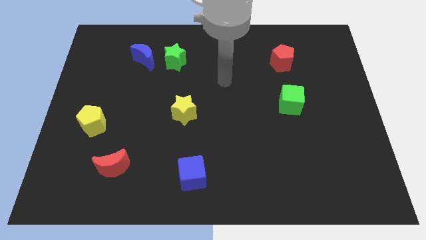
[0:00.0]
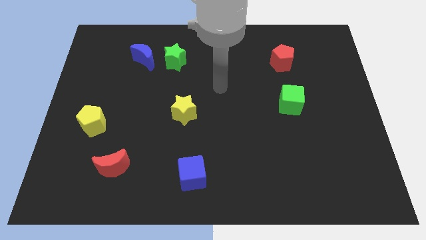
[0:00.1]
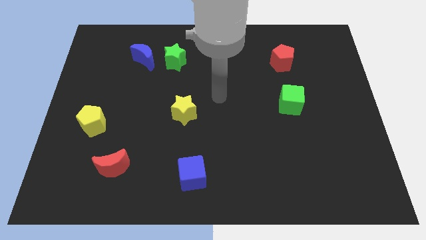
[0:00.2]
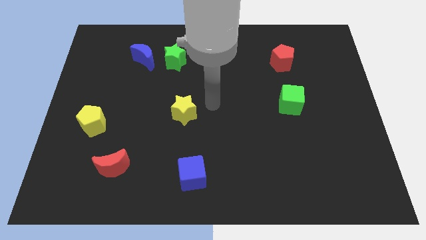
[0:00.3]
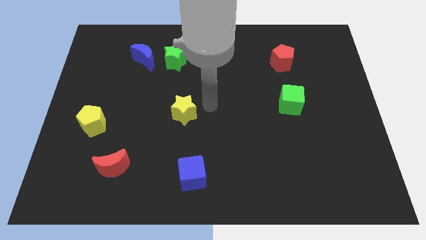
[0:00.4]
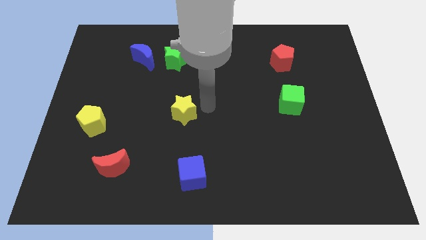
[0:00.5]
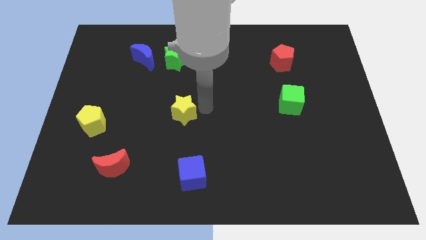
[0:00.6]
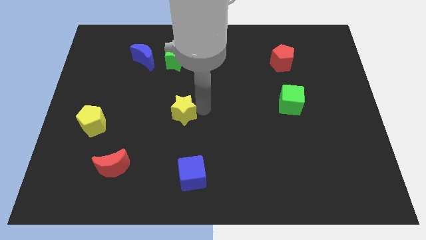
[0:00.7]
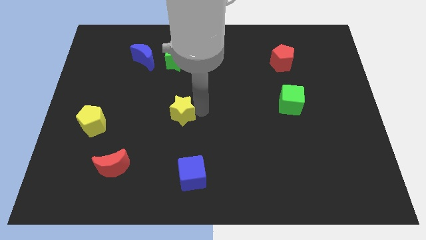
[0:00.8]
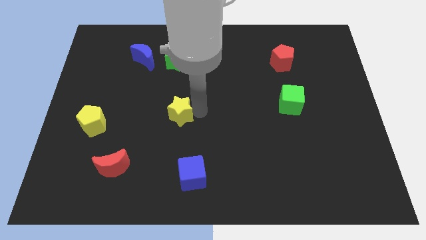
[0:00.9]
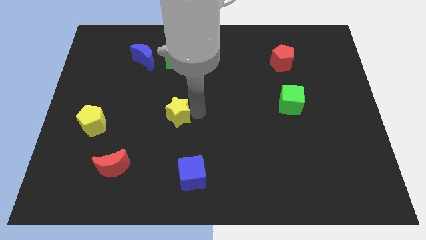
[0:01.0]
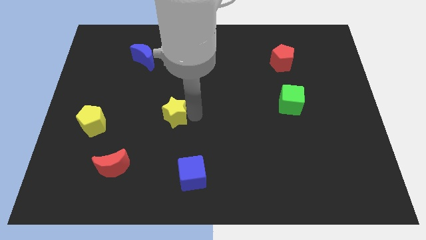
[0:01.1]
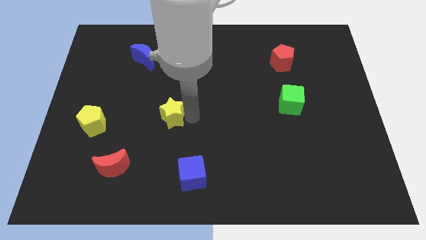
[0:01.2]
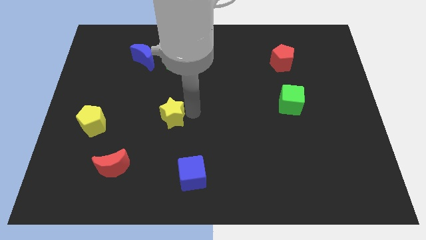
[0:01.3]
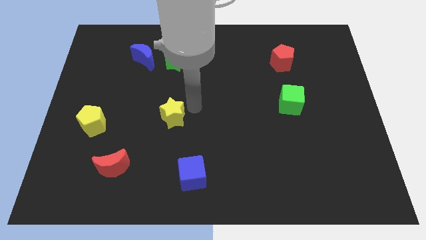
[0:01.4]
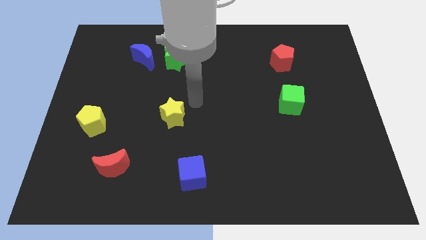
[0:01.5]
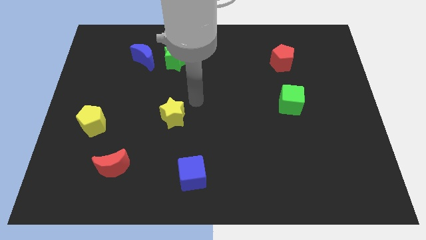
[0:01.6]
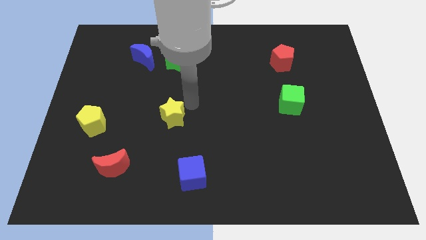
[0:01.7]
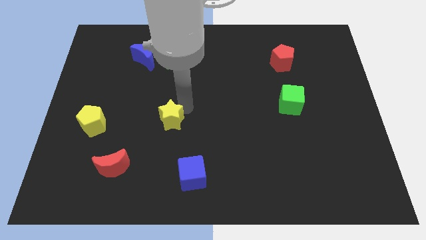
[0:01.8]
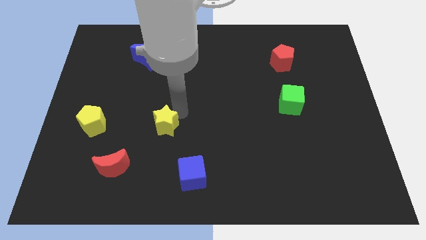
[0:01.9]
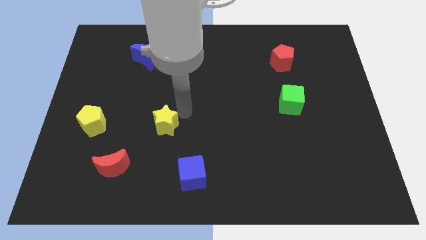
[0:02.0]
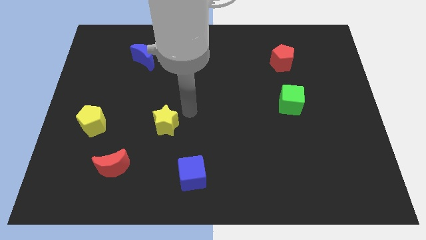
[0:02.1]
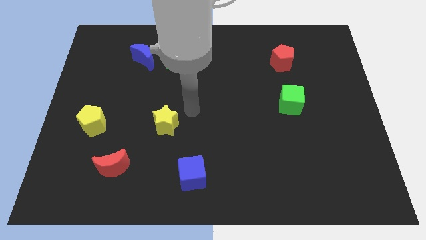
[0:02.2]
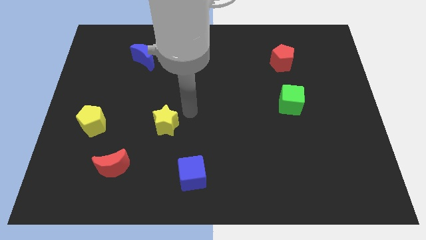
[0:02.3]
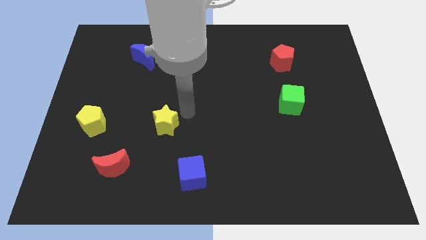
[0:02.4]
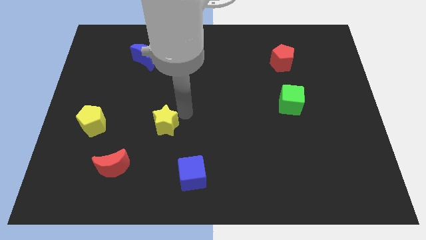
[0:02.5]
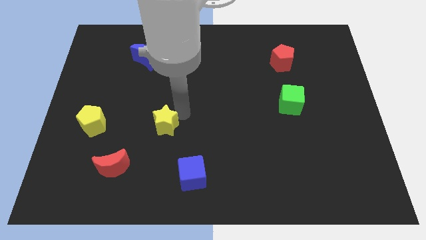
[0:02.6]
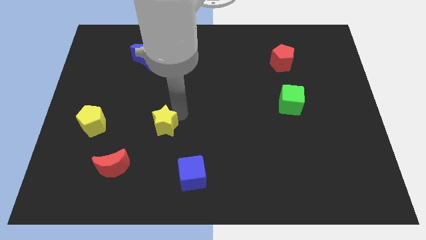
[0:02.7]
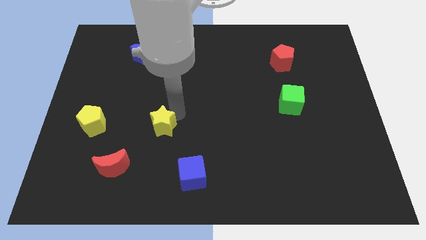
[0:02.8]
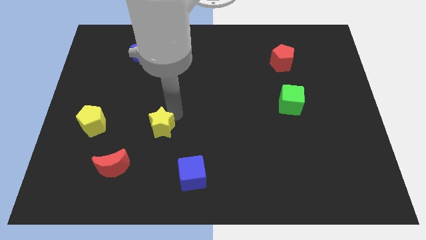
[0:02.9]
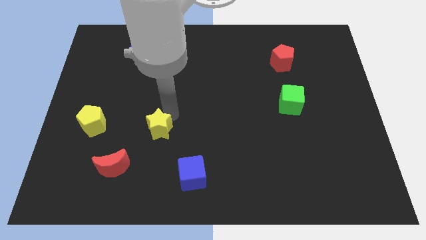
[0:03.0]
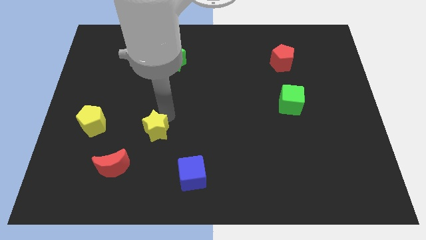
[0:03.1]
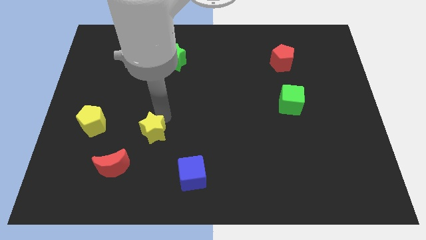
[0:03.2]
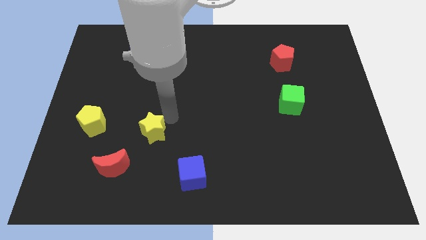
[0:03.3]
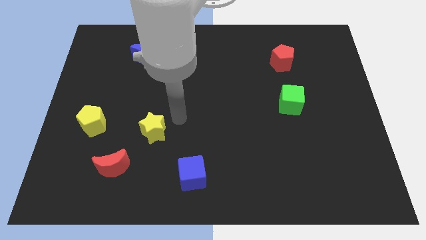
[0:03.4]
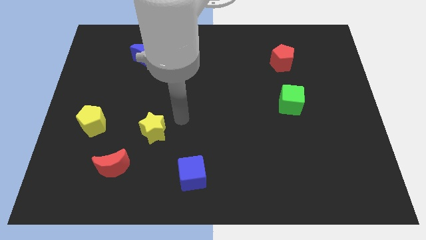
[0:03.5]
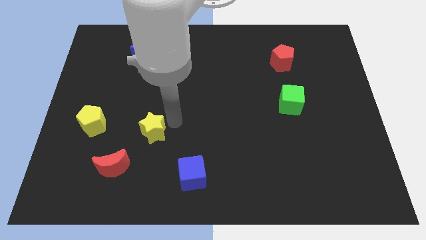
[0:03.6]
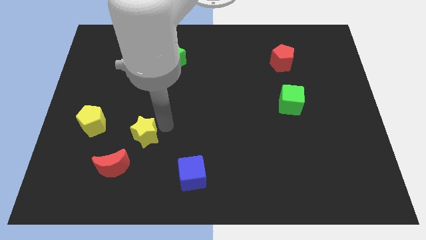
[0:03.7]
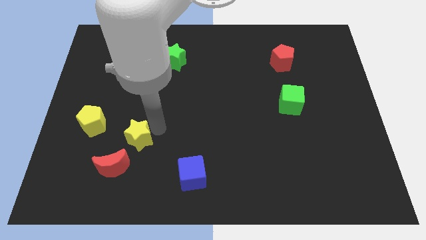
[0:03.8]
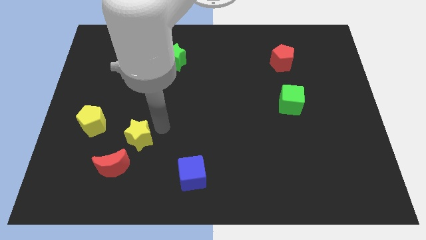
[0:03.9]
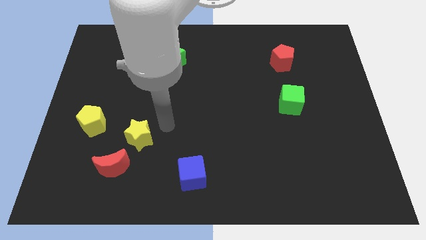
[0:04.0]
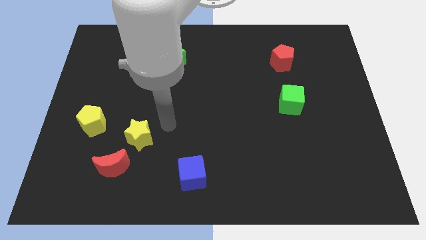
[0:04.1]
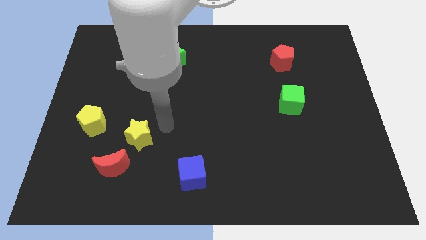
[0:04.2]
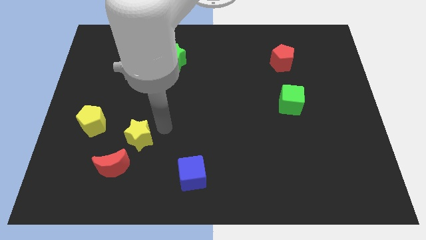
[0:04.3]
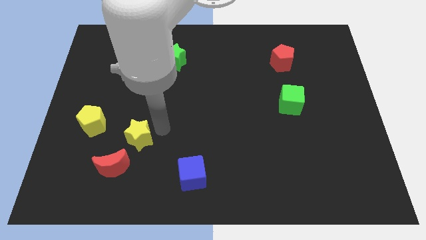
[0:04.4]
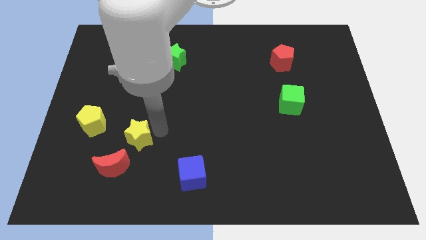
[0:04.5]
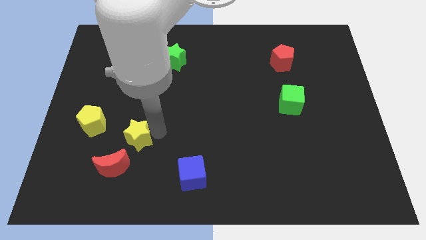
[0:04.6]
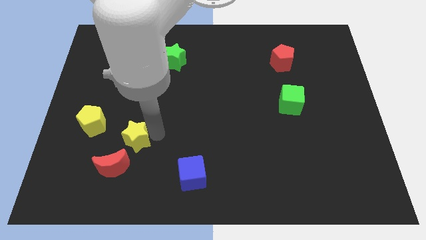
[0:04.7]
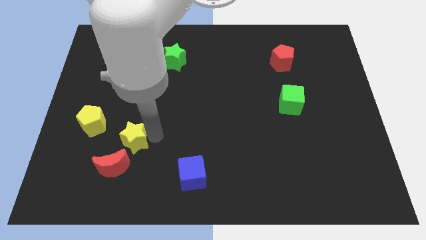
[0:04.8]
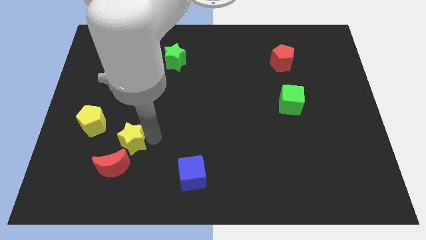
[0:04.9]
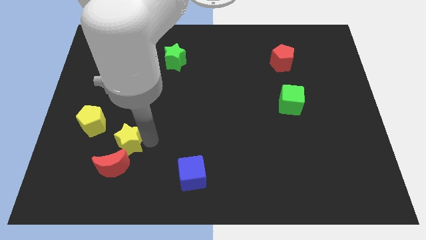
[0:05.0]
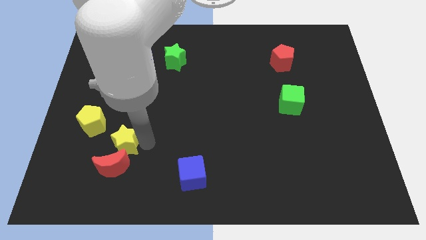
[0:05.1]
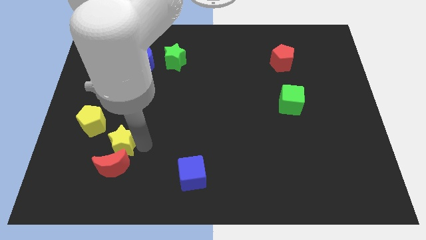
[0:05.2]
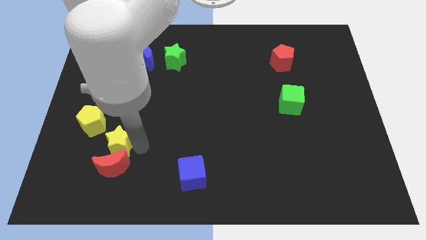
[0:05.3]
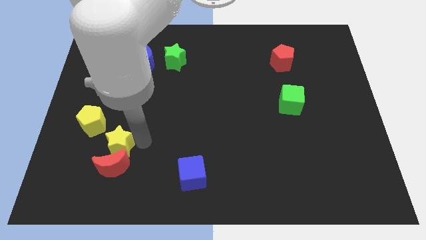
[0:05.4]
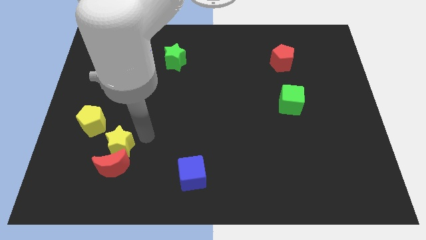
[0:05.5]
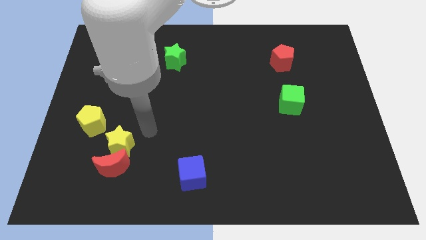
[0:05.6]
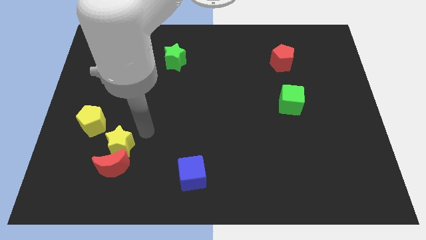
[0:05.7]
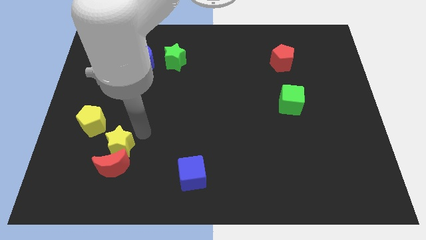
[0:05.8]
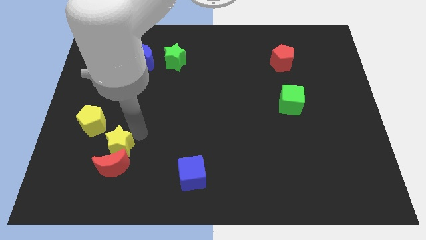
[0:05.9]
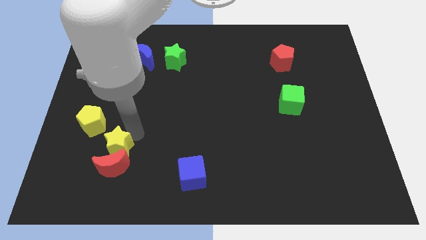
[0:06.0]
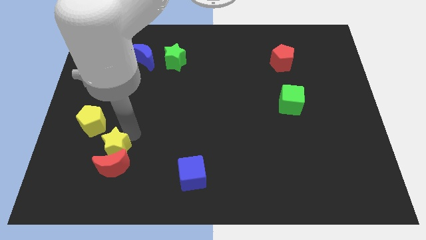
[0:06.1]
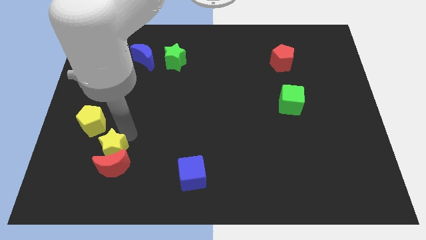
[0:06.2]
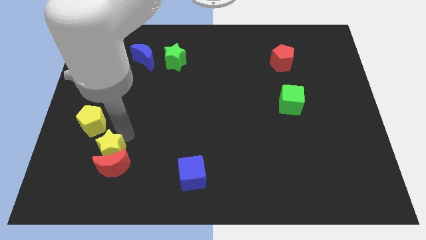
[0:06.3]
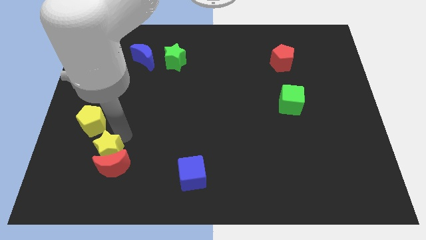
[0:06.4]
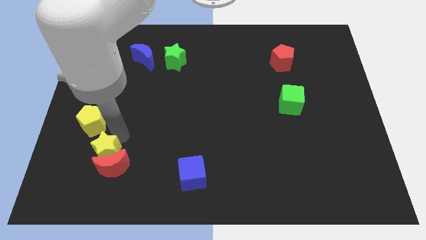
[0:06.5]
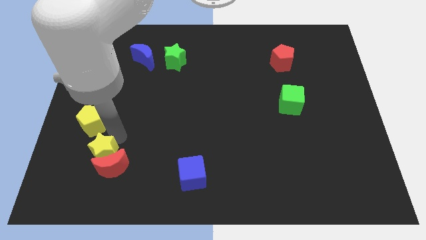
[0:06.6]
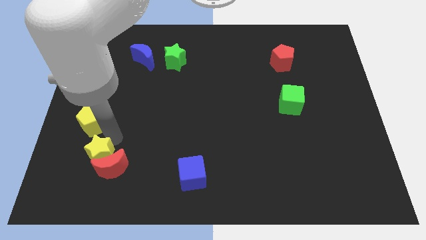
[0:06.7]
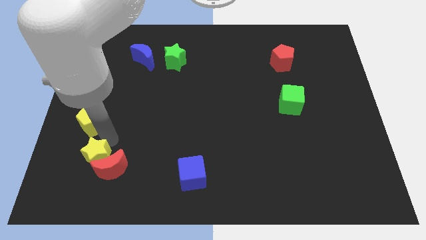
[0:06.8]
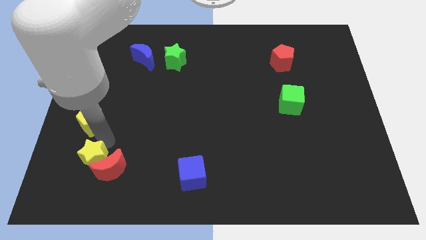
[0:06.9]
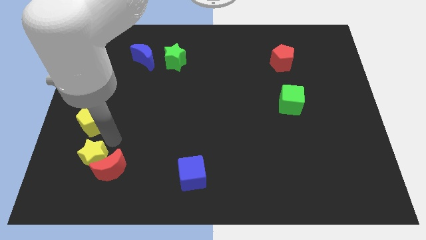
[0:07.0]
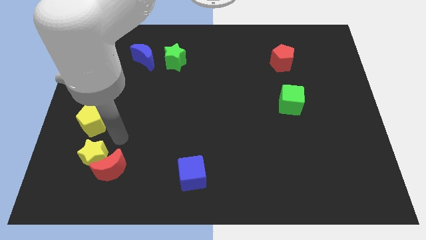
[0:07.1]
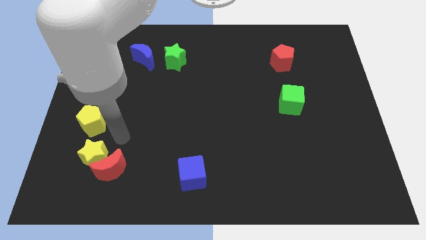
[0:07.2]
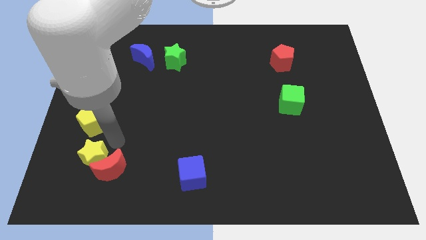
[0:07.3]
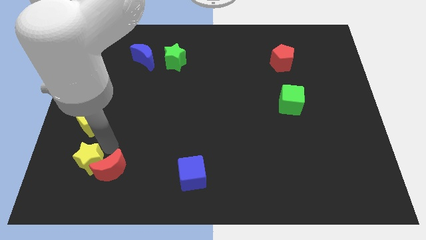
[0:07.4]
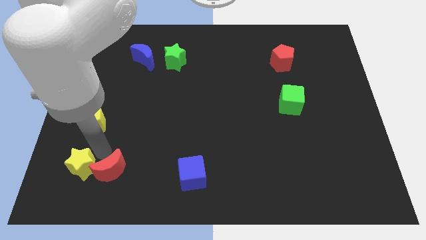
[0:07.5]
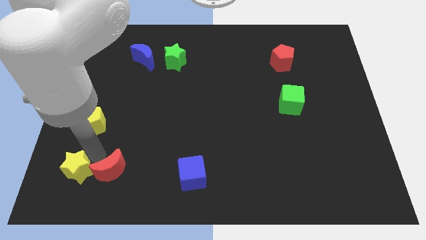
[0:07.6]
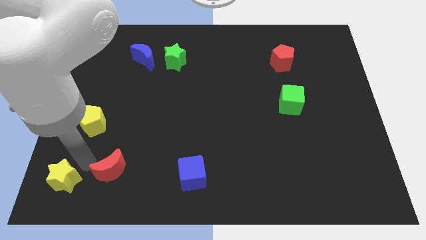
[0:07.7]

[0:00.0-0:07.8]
put the yellow star to the lower left corner
